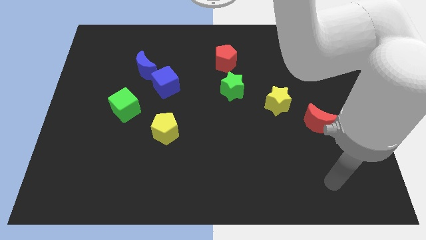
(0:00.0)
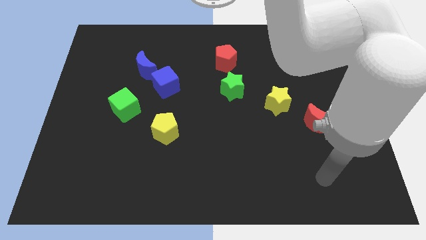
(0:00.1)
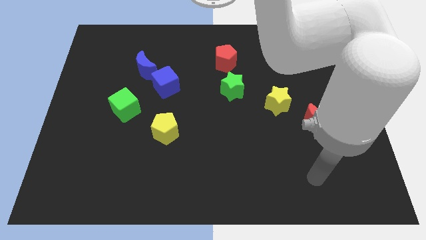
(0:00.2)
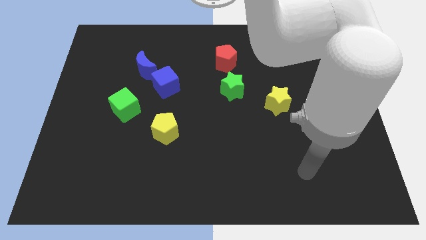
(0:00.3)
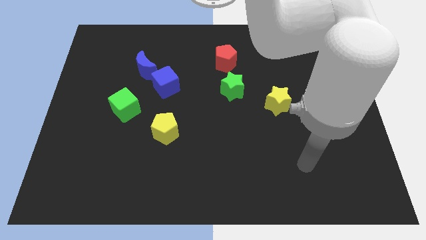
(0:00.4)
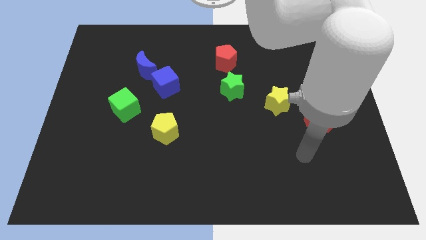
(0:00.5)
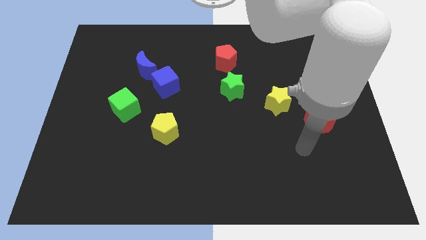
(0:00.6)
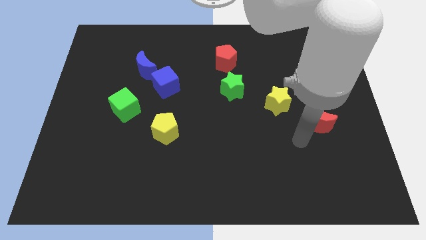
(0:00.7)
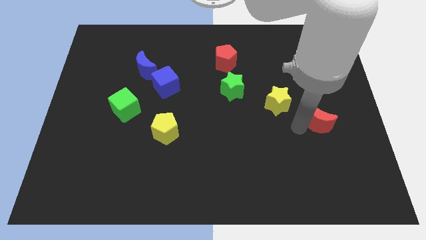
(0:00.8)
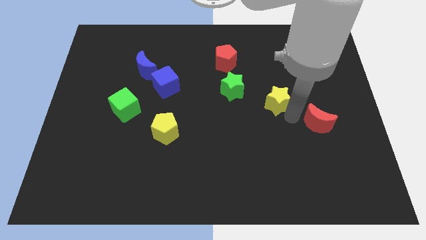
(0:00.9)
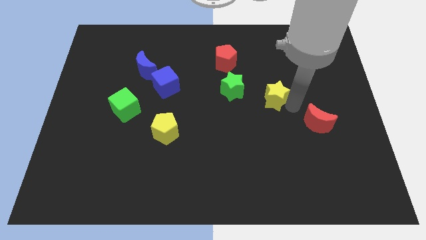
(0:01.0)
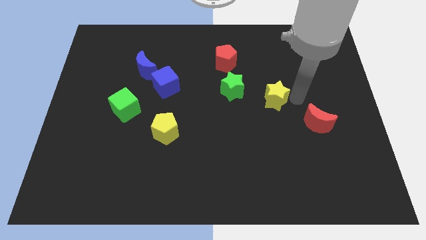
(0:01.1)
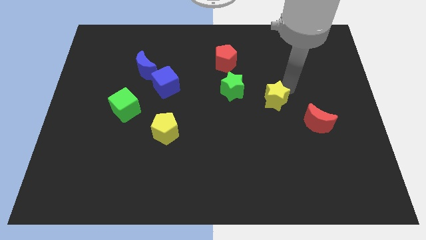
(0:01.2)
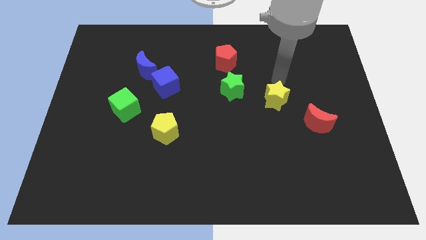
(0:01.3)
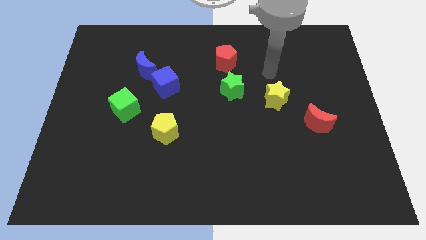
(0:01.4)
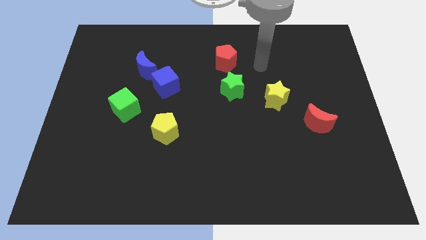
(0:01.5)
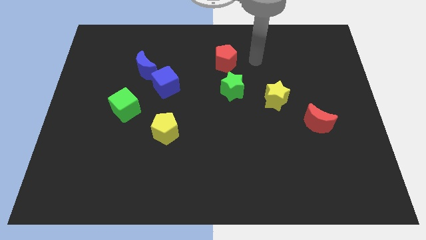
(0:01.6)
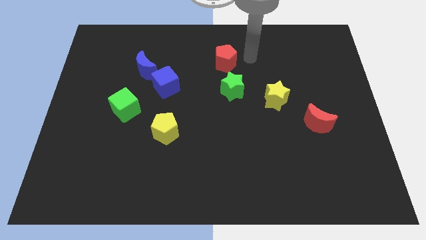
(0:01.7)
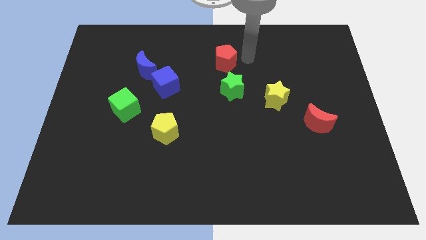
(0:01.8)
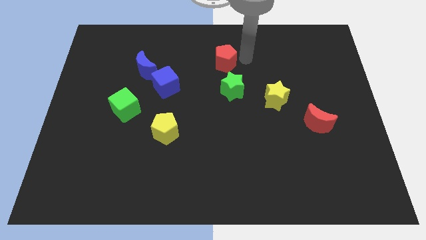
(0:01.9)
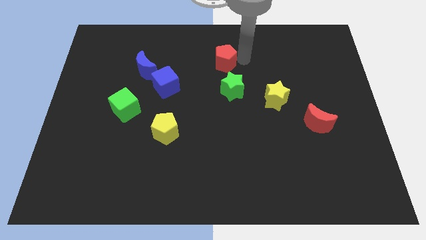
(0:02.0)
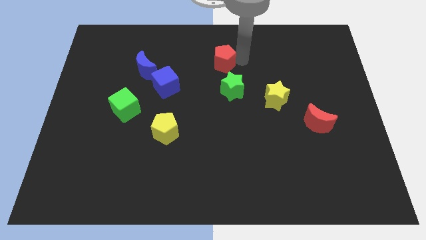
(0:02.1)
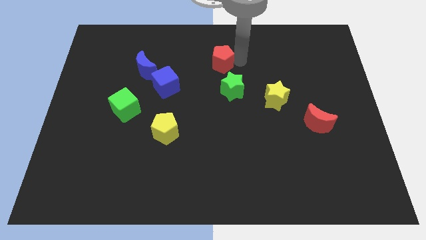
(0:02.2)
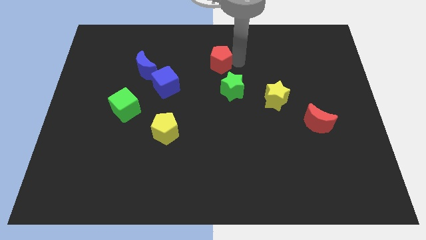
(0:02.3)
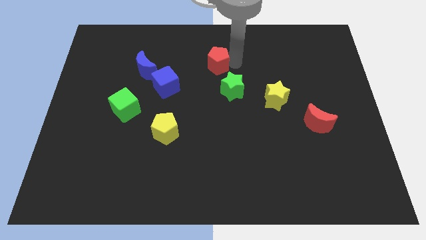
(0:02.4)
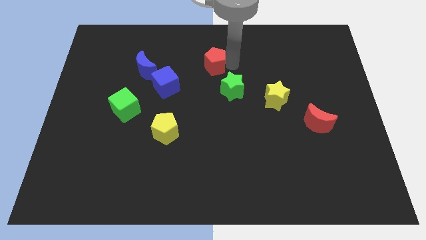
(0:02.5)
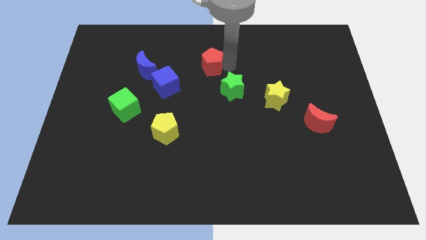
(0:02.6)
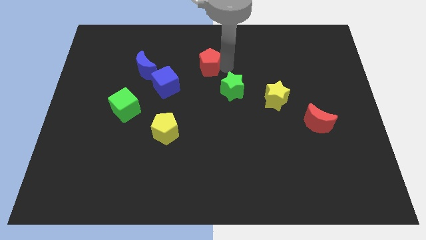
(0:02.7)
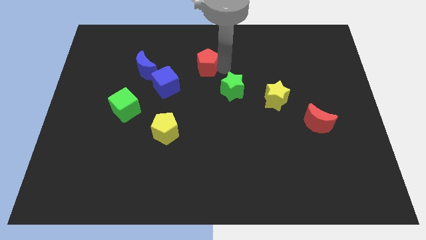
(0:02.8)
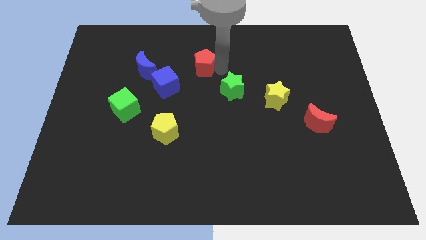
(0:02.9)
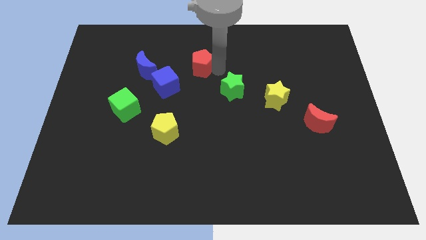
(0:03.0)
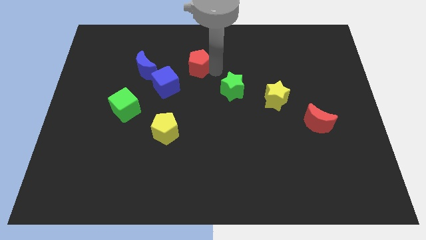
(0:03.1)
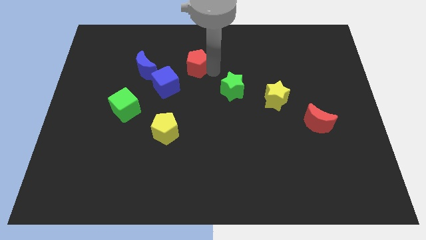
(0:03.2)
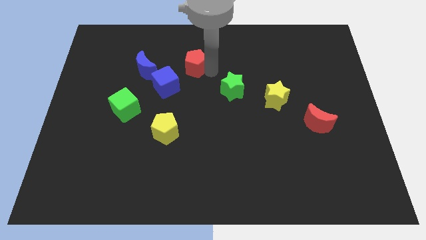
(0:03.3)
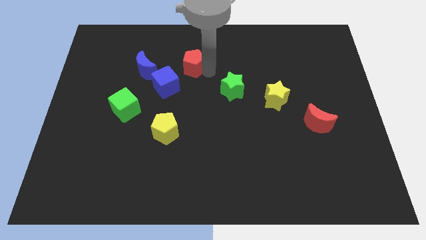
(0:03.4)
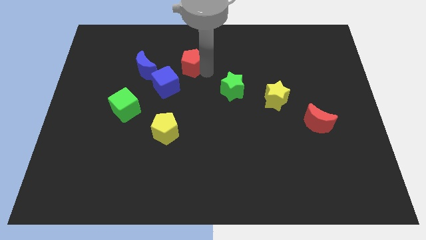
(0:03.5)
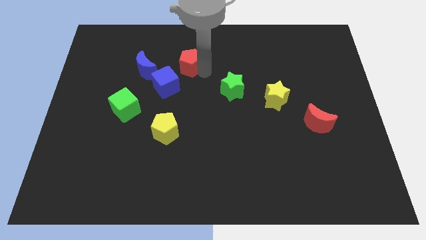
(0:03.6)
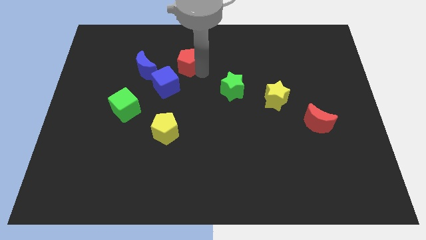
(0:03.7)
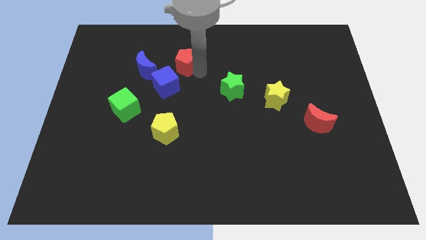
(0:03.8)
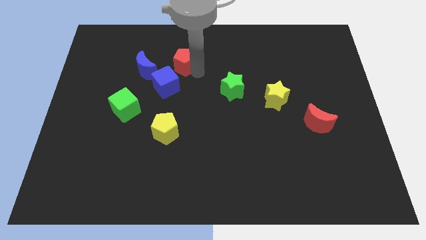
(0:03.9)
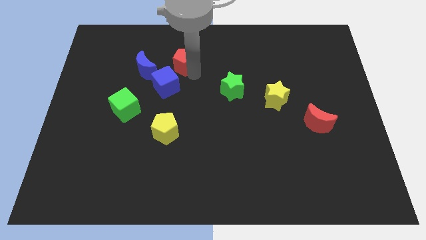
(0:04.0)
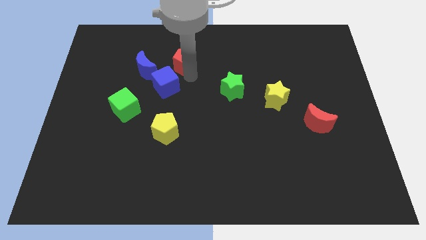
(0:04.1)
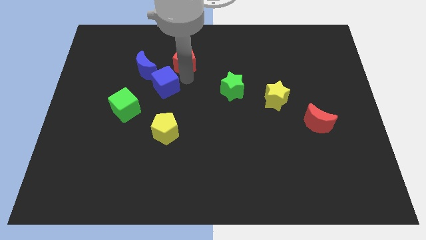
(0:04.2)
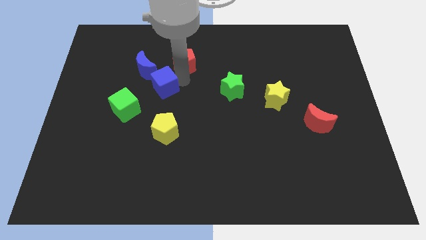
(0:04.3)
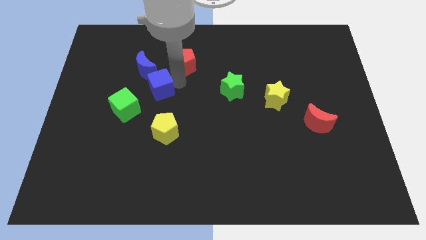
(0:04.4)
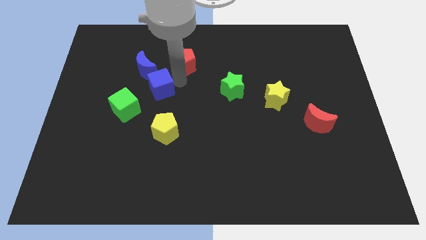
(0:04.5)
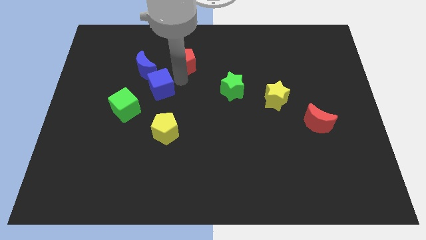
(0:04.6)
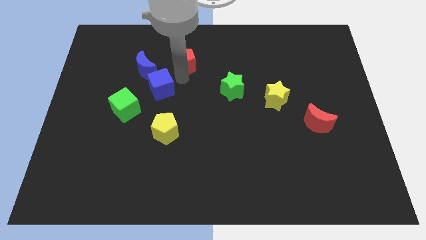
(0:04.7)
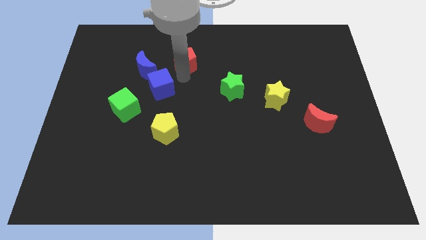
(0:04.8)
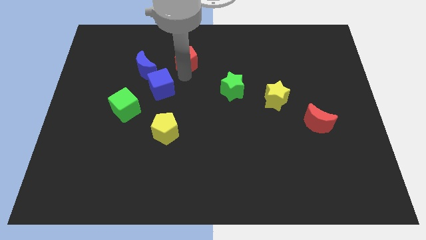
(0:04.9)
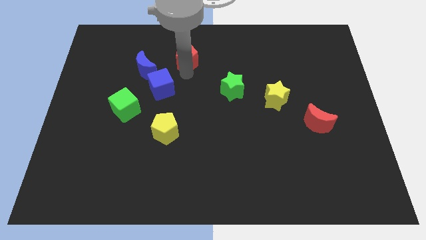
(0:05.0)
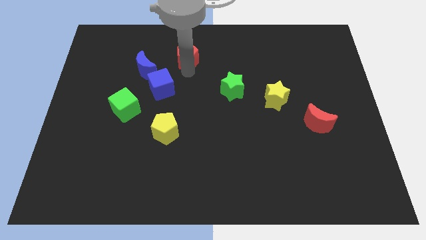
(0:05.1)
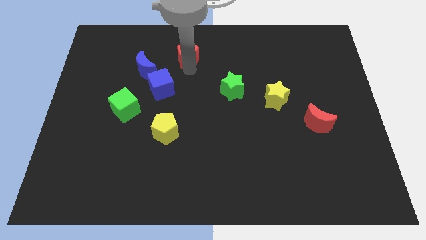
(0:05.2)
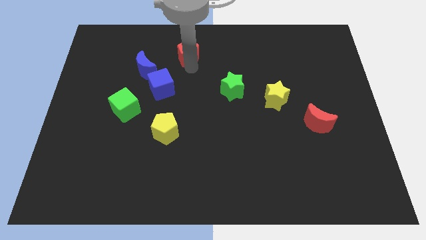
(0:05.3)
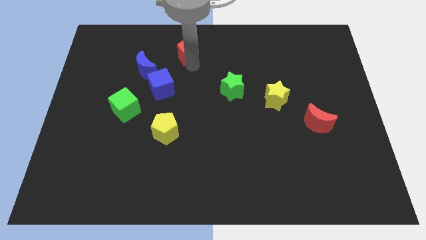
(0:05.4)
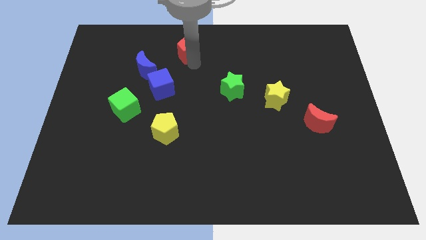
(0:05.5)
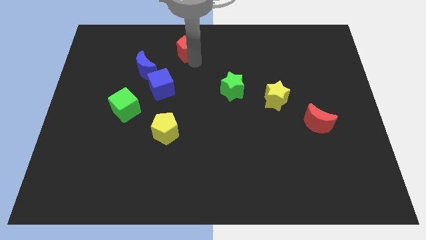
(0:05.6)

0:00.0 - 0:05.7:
slide the red pentagon to the top right of the blue moon
